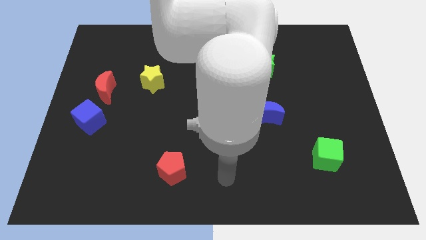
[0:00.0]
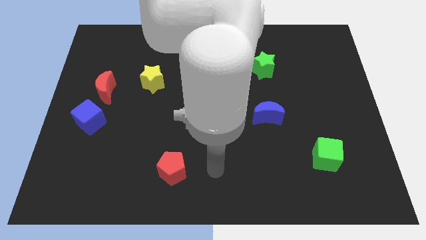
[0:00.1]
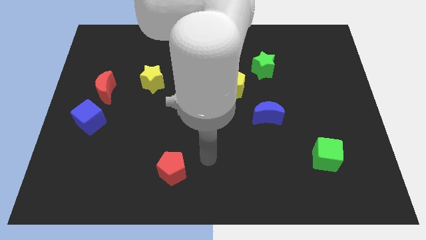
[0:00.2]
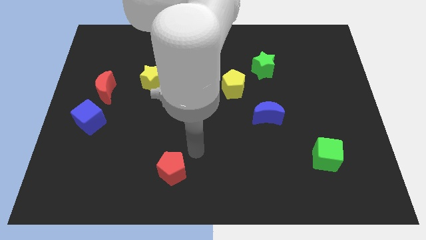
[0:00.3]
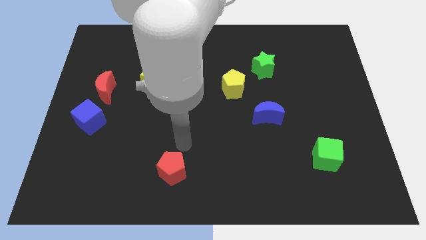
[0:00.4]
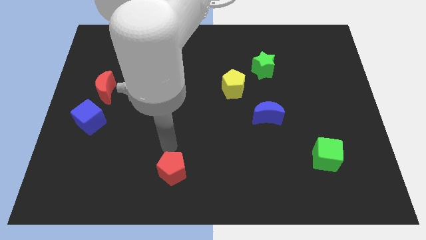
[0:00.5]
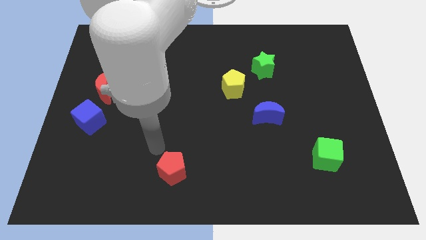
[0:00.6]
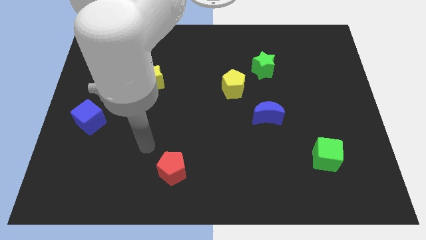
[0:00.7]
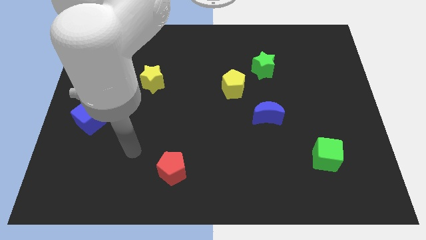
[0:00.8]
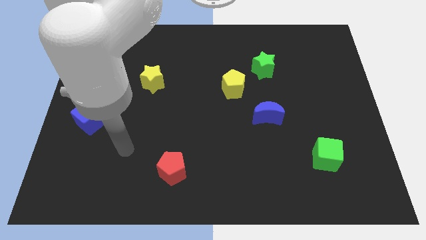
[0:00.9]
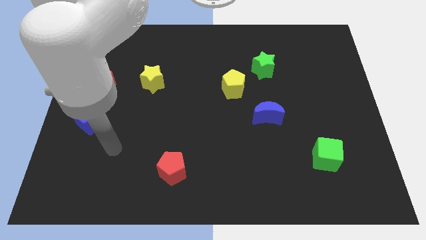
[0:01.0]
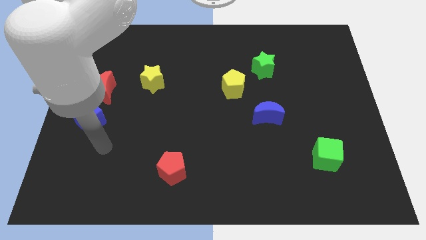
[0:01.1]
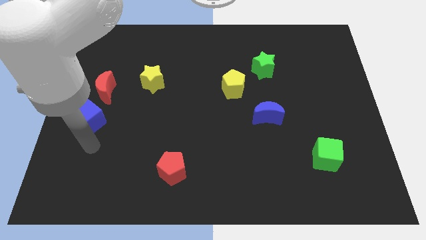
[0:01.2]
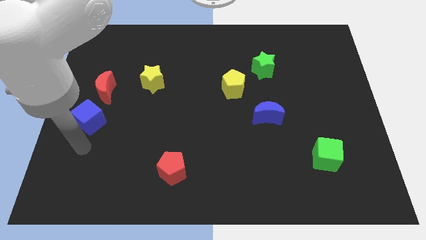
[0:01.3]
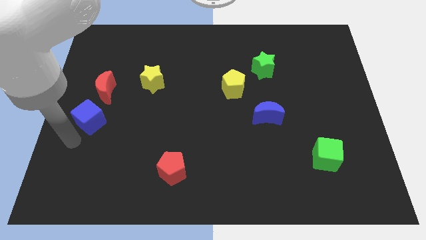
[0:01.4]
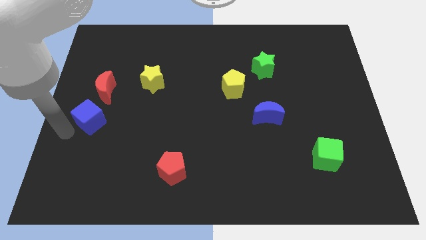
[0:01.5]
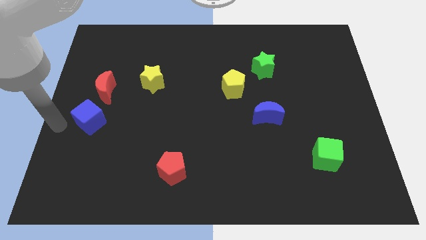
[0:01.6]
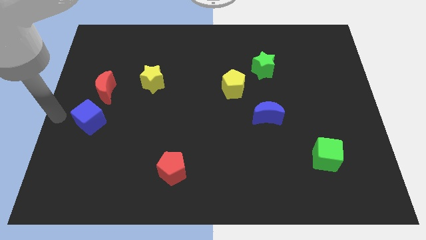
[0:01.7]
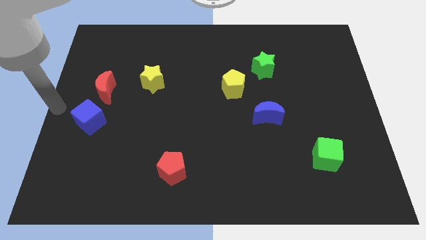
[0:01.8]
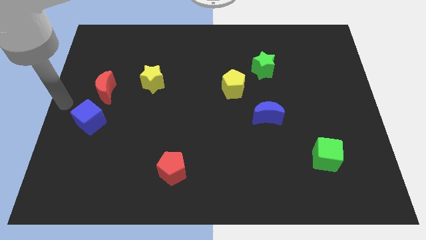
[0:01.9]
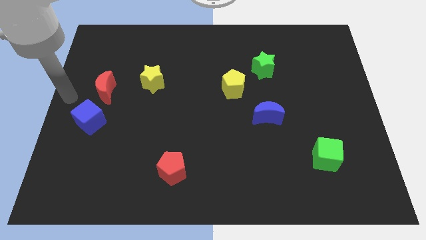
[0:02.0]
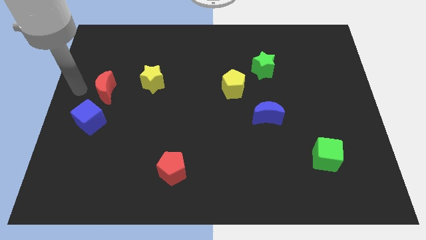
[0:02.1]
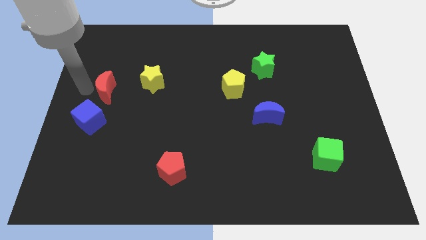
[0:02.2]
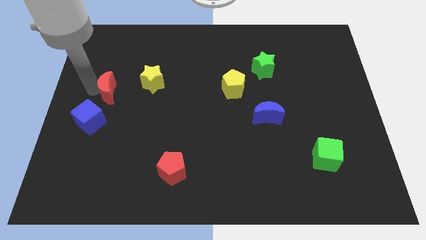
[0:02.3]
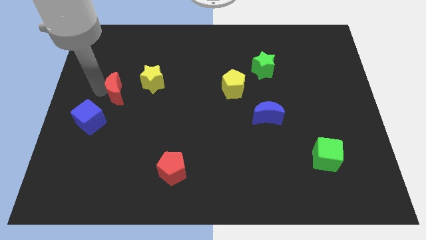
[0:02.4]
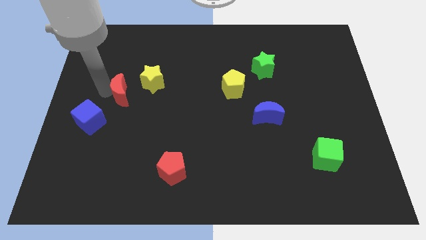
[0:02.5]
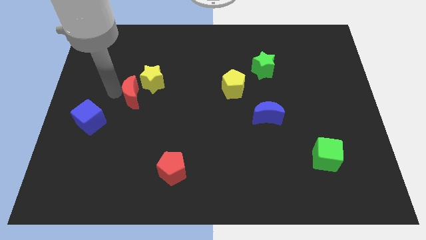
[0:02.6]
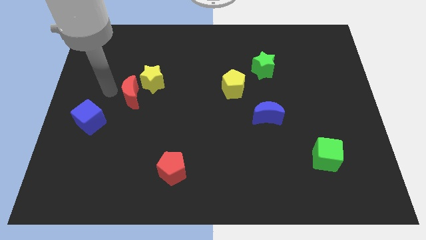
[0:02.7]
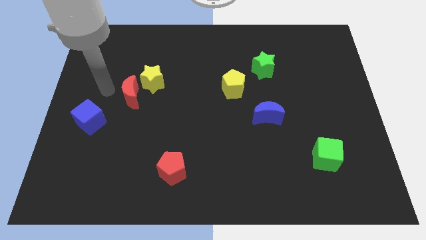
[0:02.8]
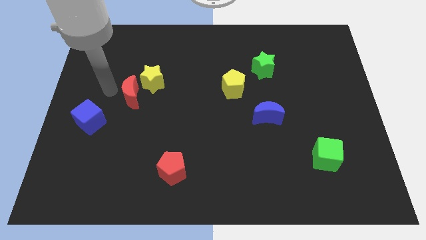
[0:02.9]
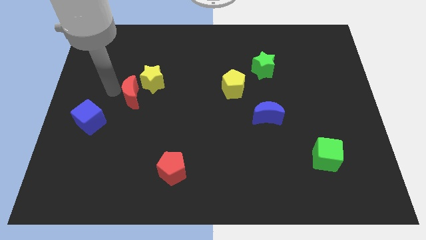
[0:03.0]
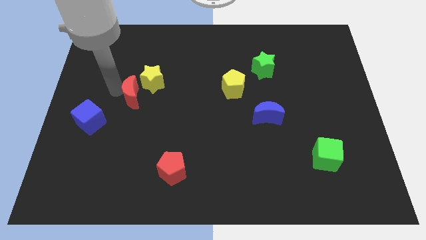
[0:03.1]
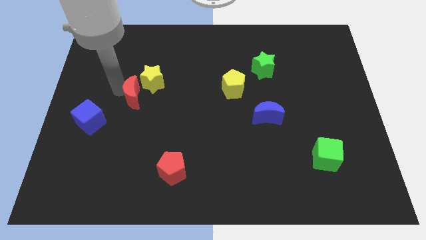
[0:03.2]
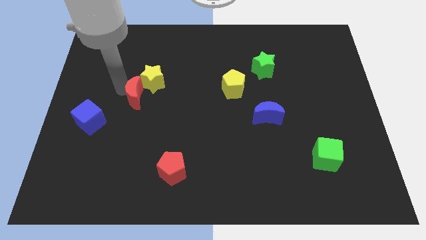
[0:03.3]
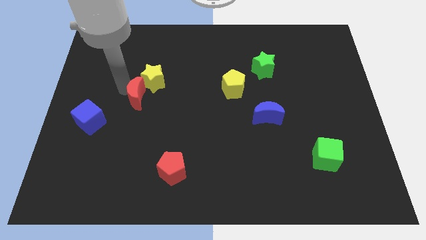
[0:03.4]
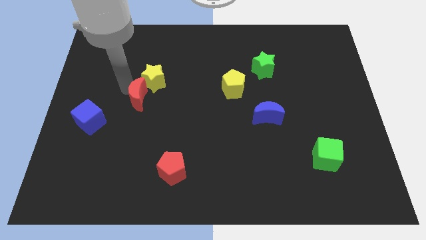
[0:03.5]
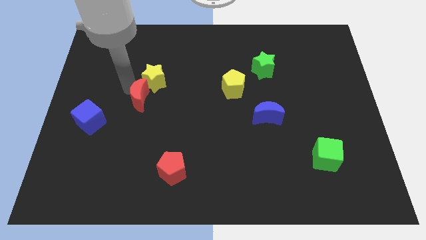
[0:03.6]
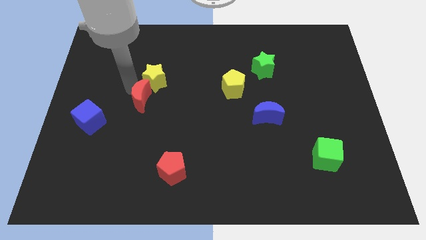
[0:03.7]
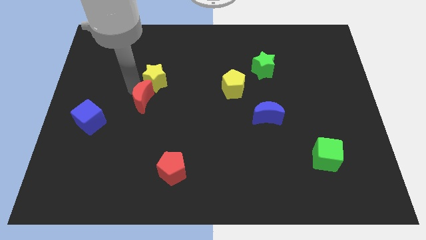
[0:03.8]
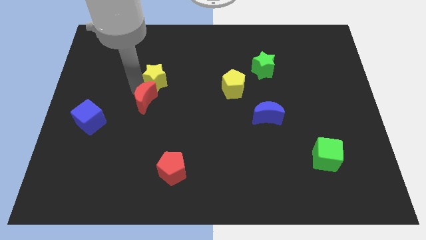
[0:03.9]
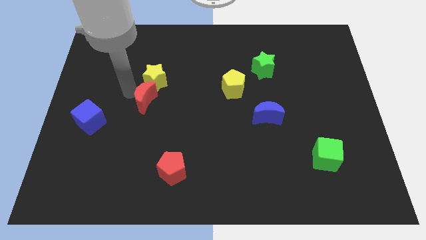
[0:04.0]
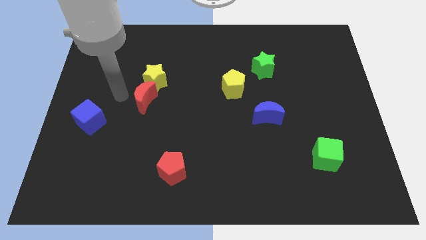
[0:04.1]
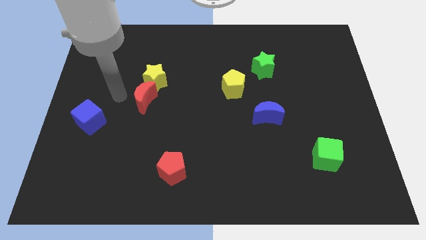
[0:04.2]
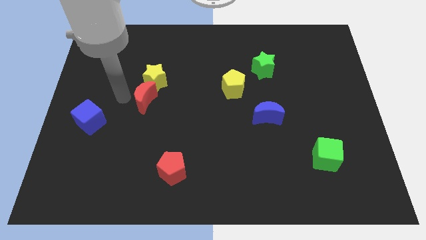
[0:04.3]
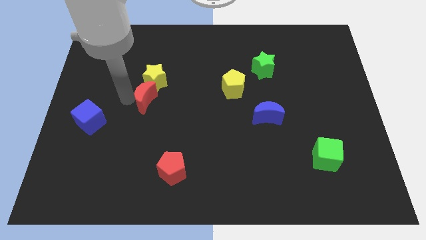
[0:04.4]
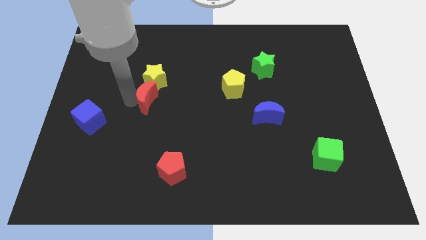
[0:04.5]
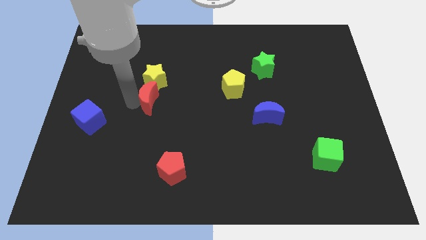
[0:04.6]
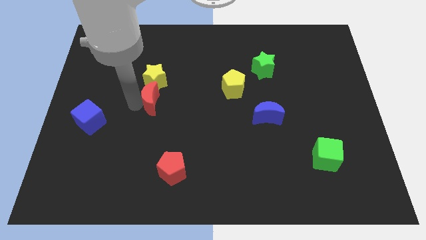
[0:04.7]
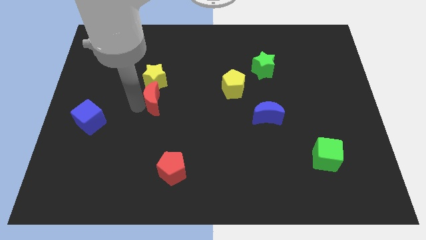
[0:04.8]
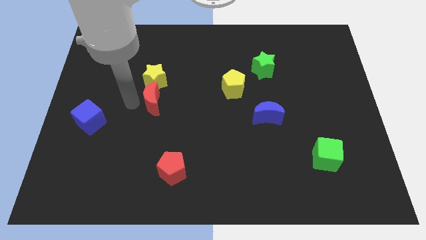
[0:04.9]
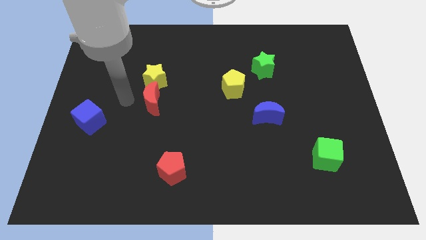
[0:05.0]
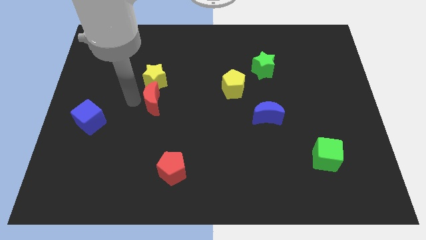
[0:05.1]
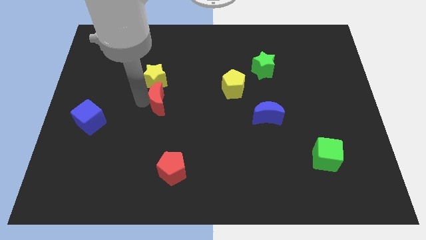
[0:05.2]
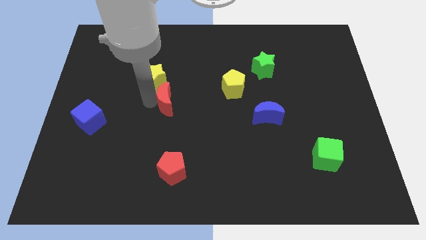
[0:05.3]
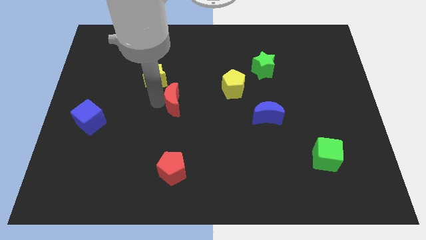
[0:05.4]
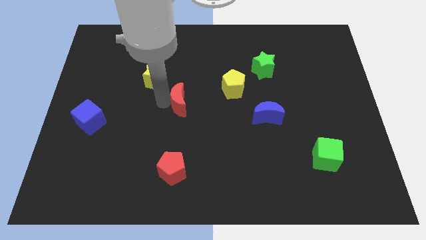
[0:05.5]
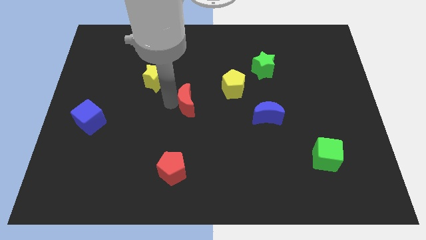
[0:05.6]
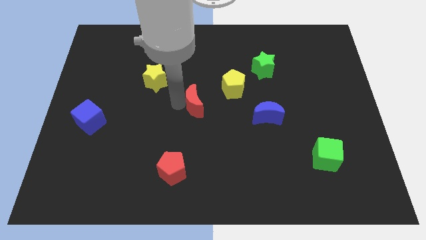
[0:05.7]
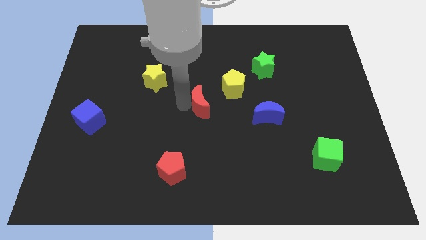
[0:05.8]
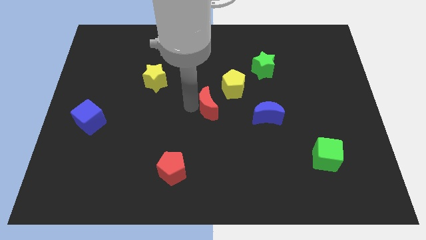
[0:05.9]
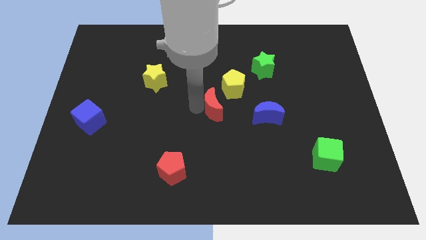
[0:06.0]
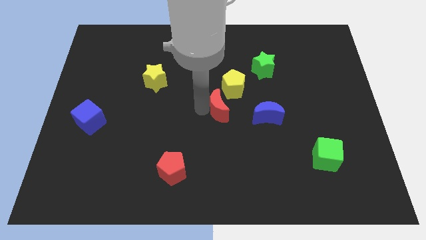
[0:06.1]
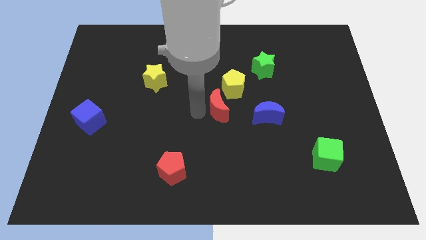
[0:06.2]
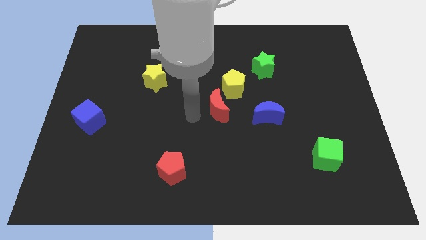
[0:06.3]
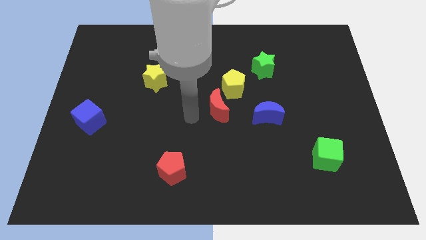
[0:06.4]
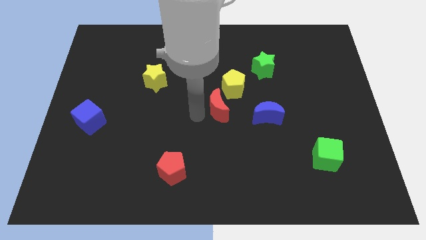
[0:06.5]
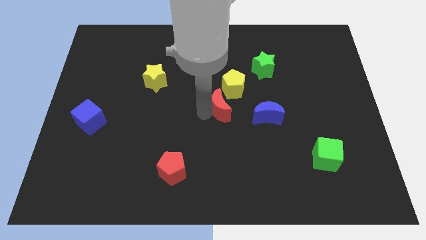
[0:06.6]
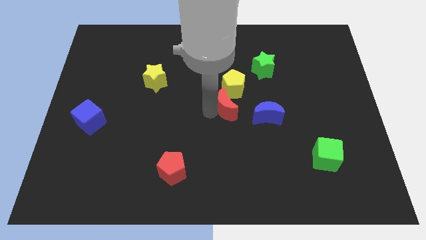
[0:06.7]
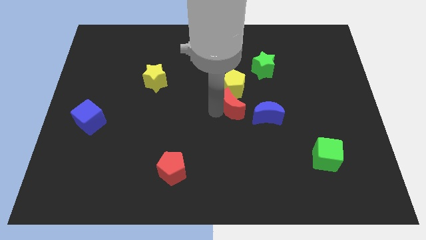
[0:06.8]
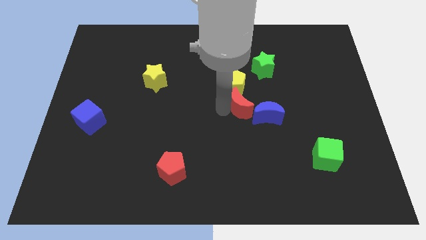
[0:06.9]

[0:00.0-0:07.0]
put the red moon diagonally down and to the right of the yellow pentagon
